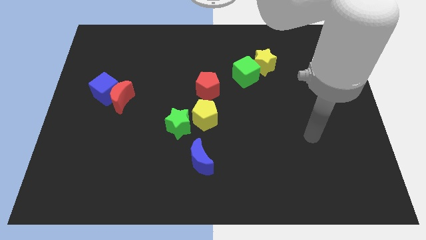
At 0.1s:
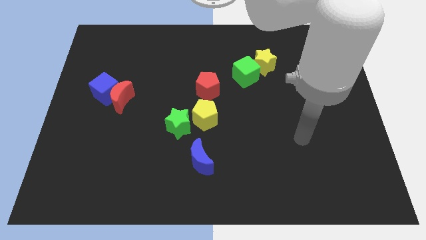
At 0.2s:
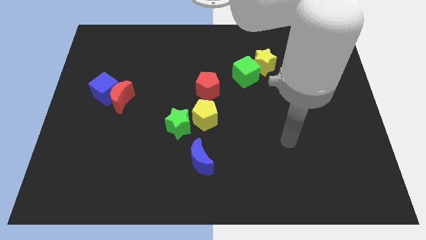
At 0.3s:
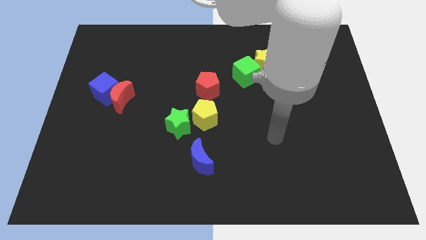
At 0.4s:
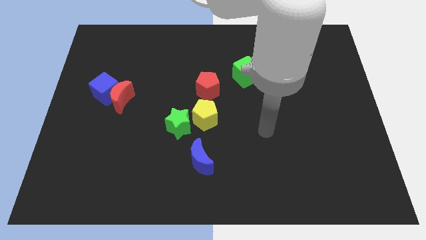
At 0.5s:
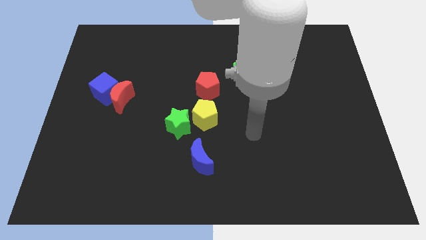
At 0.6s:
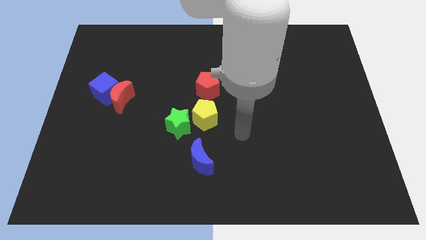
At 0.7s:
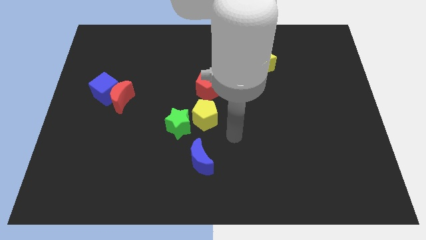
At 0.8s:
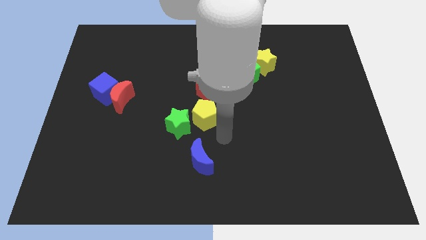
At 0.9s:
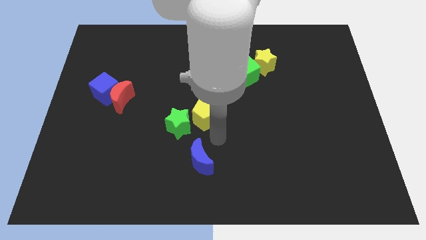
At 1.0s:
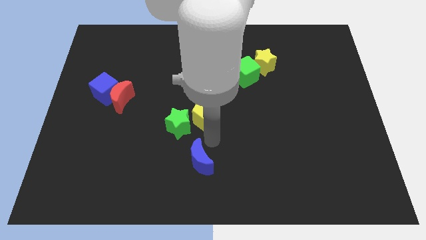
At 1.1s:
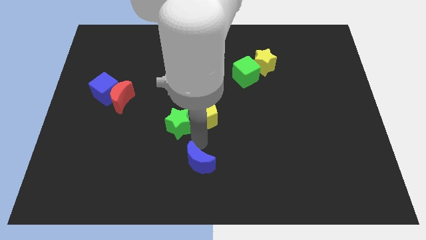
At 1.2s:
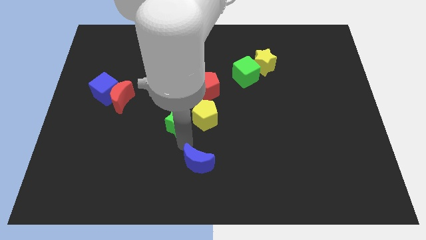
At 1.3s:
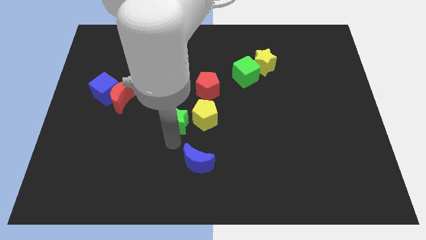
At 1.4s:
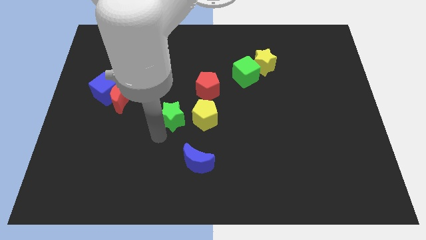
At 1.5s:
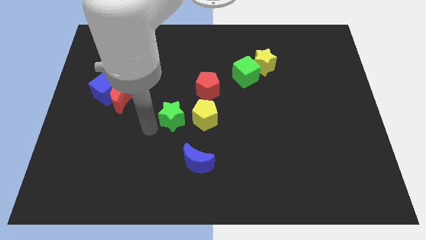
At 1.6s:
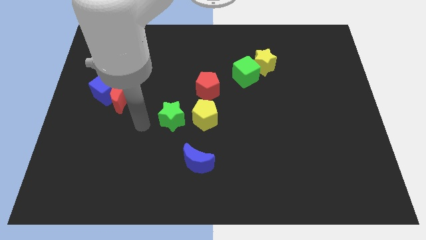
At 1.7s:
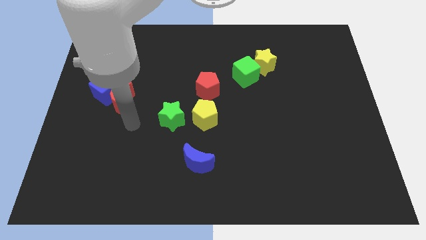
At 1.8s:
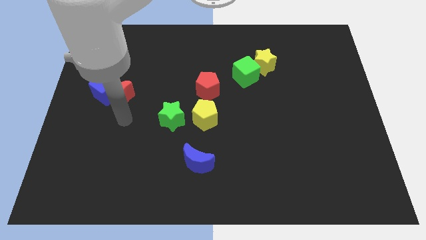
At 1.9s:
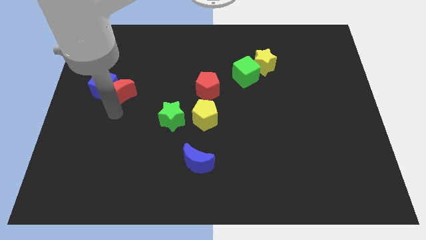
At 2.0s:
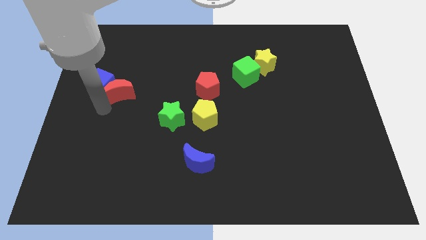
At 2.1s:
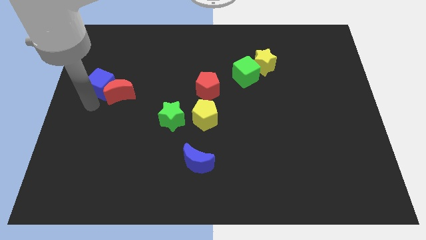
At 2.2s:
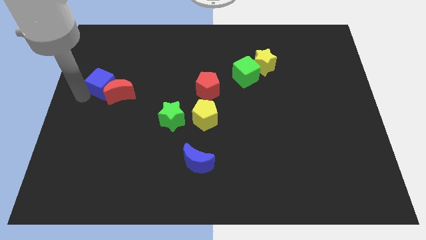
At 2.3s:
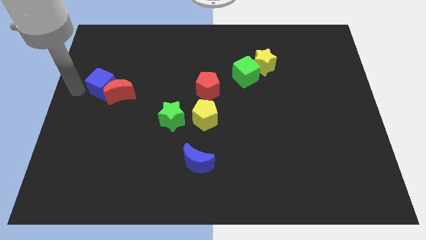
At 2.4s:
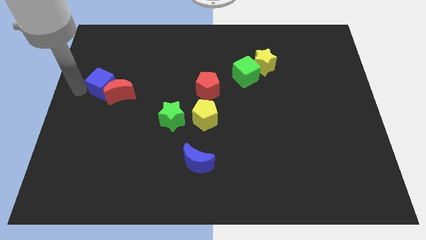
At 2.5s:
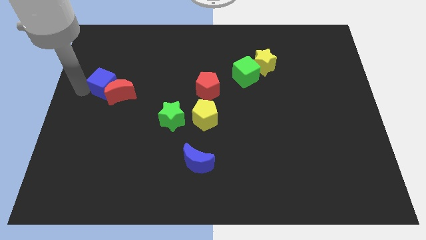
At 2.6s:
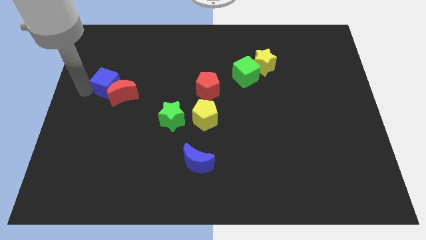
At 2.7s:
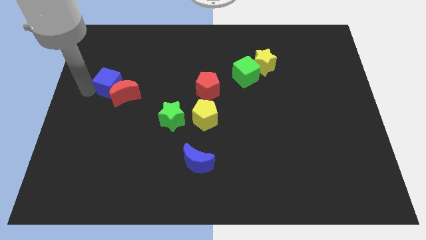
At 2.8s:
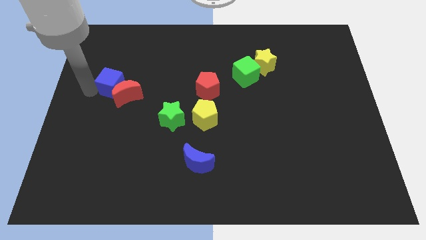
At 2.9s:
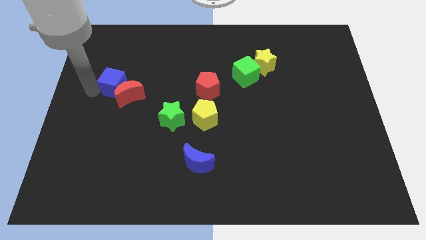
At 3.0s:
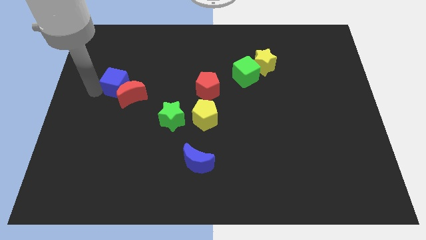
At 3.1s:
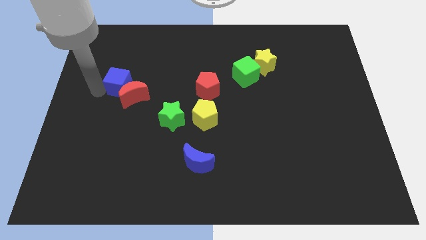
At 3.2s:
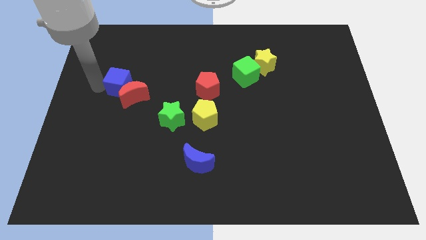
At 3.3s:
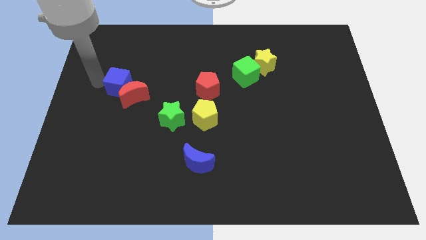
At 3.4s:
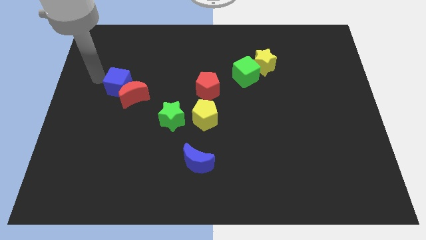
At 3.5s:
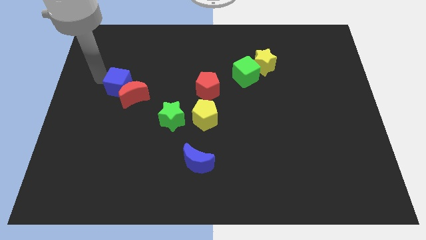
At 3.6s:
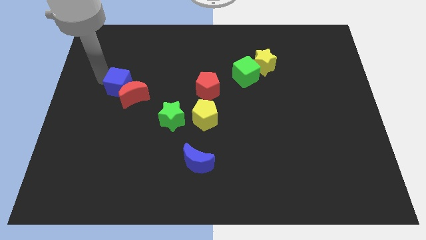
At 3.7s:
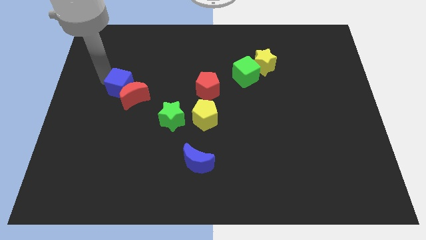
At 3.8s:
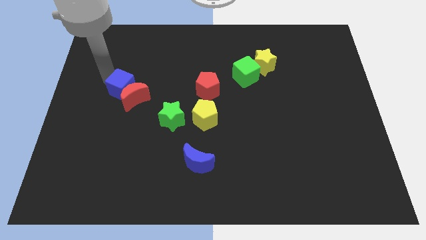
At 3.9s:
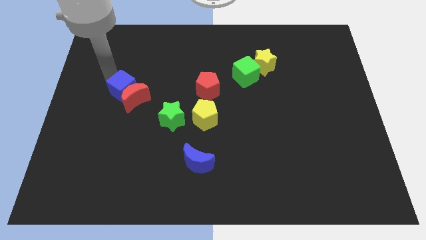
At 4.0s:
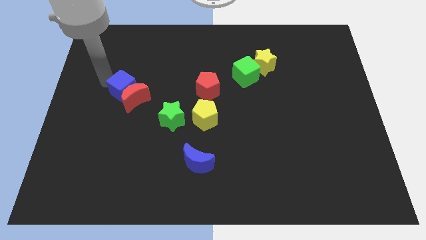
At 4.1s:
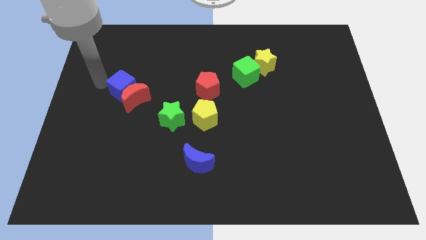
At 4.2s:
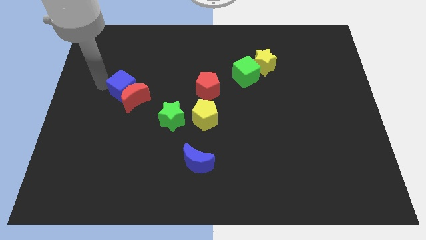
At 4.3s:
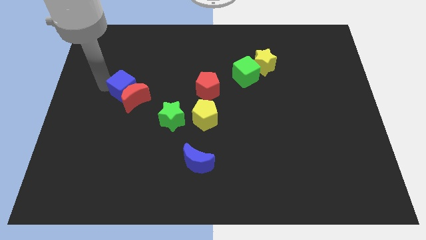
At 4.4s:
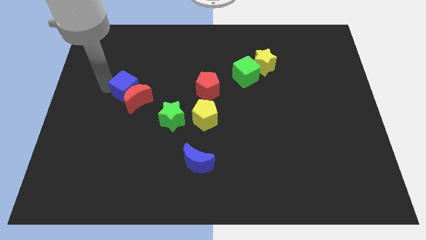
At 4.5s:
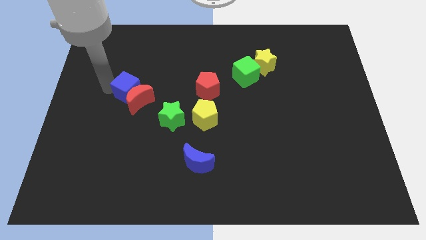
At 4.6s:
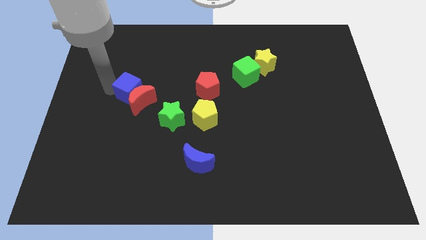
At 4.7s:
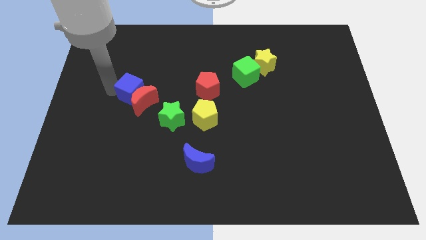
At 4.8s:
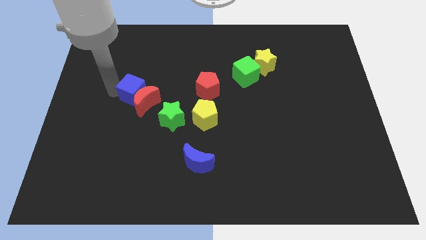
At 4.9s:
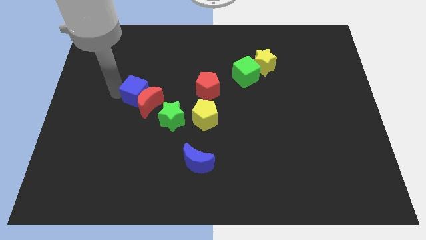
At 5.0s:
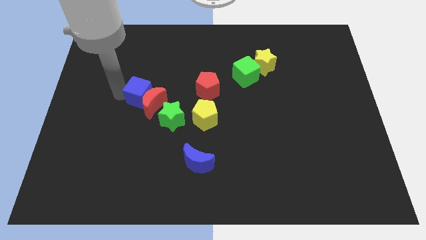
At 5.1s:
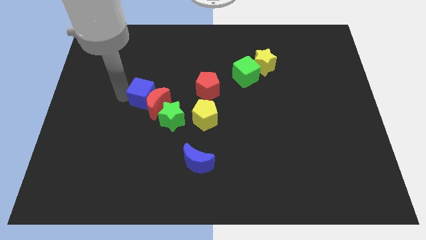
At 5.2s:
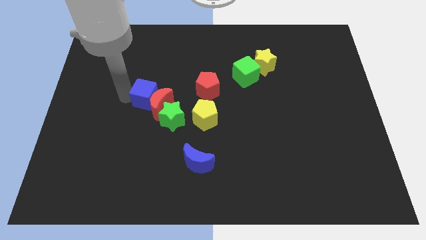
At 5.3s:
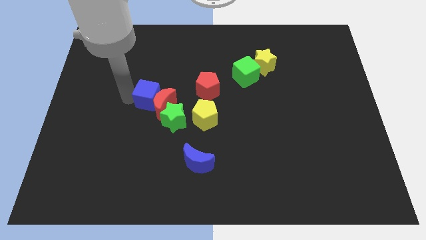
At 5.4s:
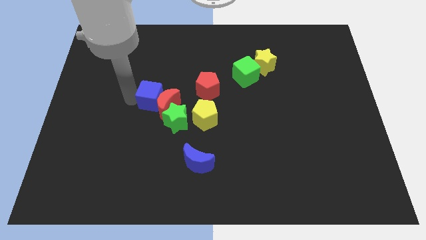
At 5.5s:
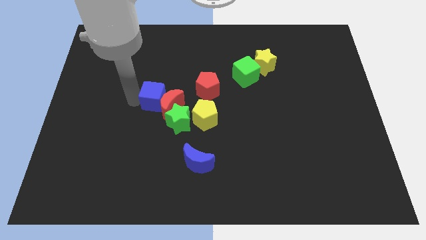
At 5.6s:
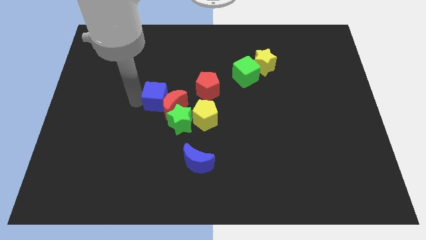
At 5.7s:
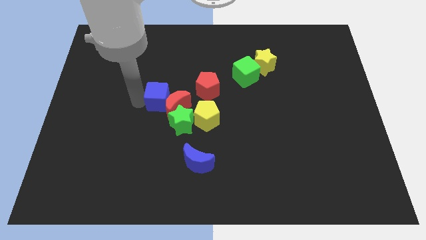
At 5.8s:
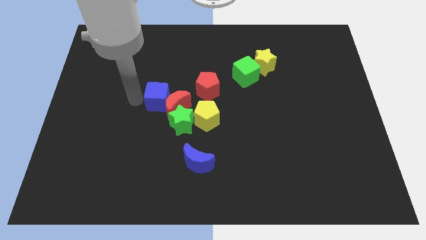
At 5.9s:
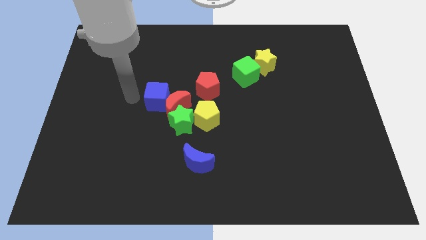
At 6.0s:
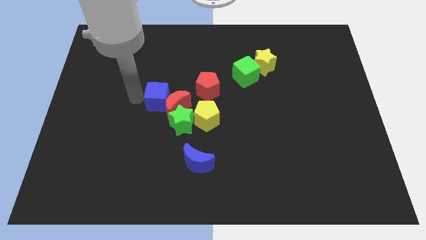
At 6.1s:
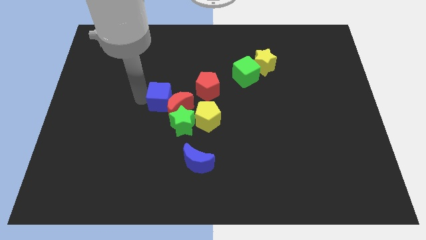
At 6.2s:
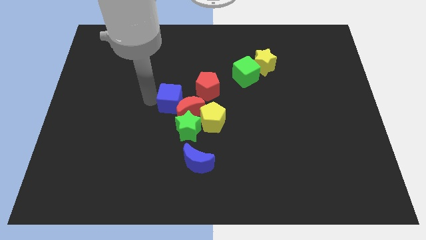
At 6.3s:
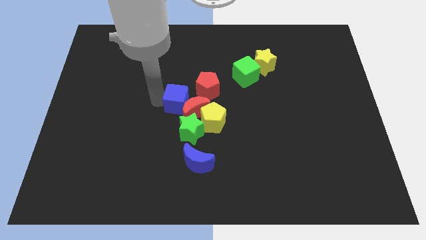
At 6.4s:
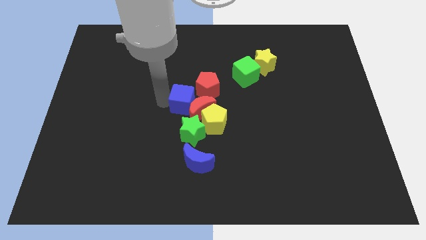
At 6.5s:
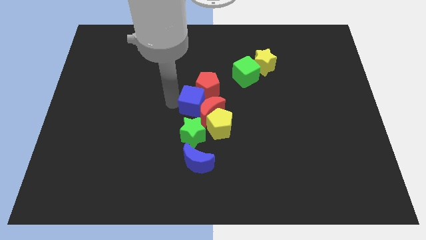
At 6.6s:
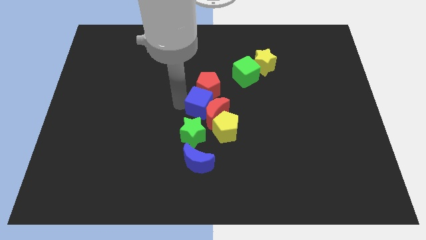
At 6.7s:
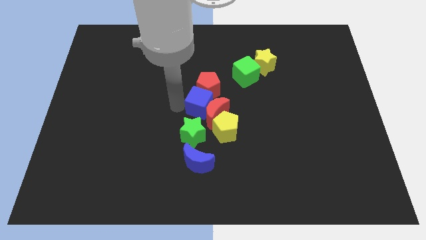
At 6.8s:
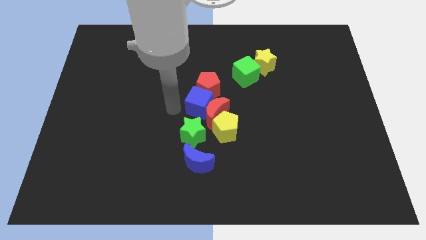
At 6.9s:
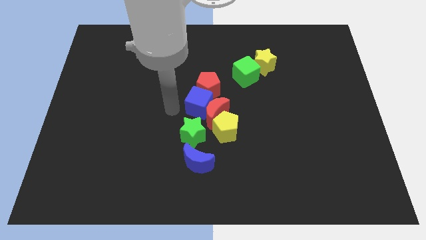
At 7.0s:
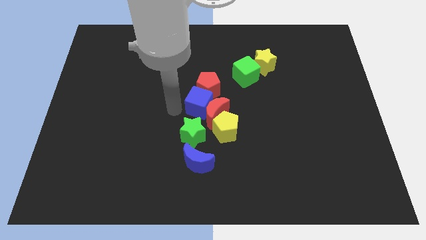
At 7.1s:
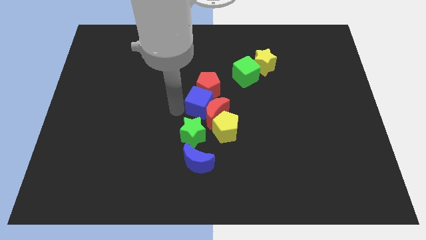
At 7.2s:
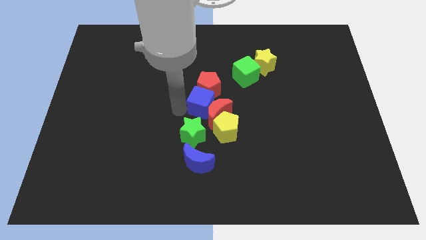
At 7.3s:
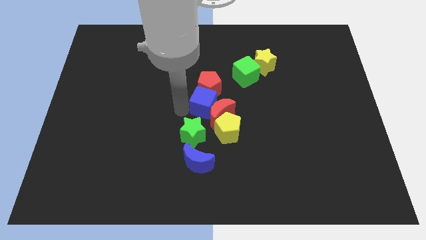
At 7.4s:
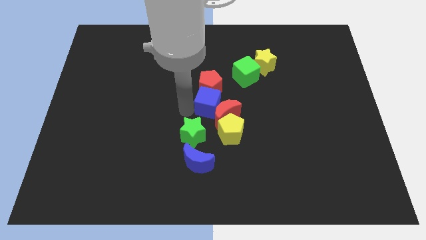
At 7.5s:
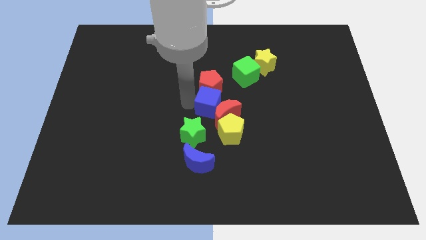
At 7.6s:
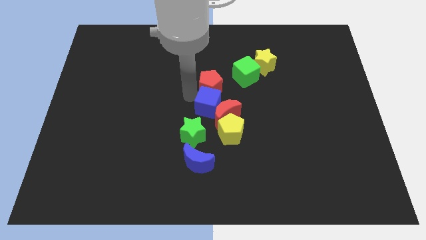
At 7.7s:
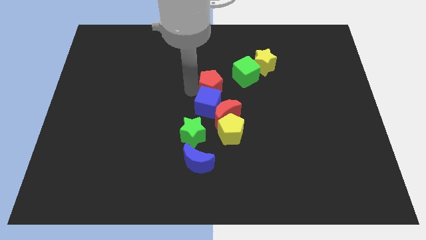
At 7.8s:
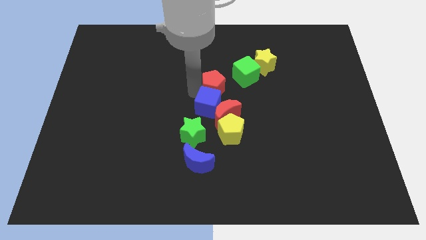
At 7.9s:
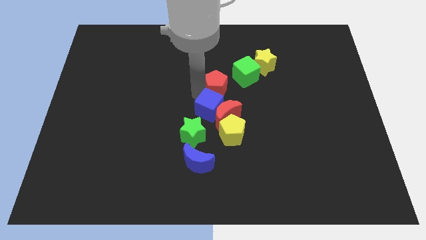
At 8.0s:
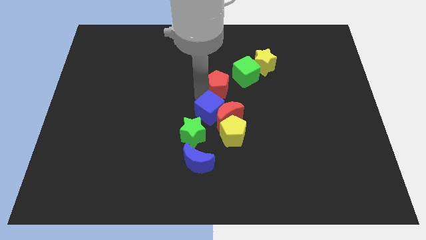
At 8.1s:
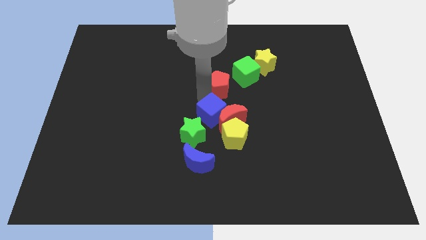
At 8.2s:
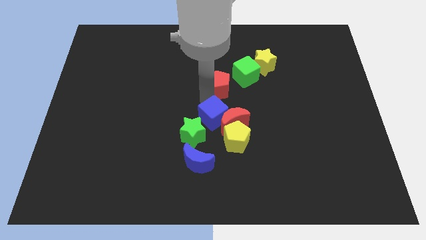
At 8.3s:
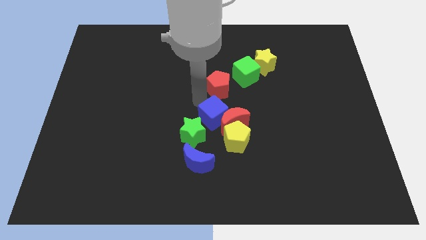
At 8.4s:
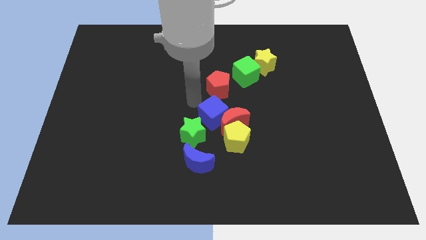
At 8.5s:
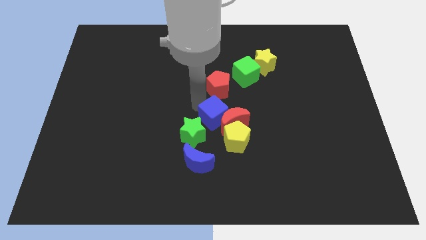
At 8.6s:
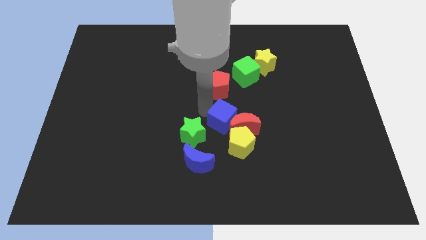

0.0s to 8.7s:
move the blue cube right of the green star
